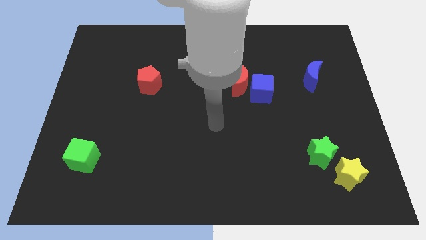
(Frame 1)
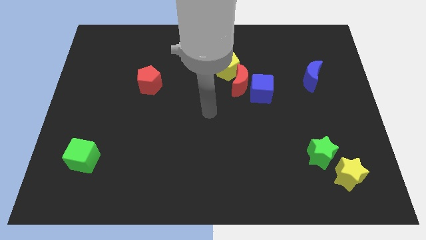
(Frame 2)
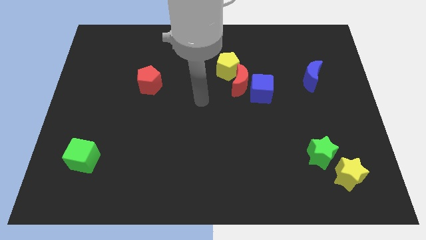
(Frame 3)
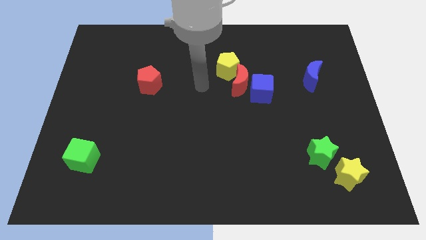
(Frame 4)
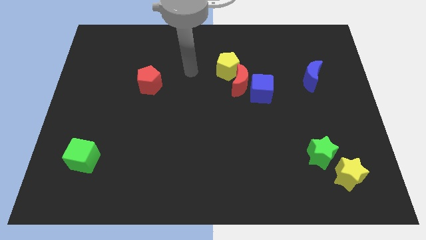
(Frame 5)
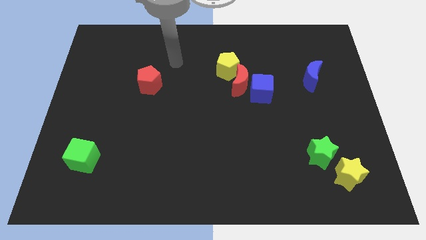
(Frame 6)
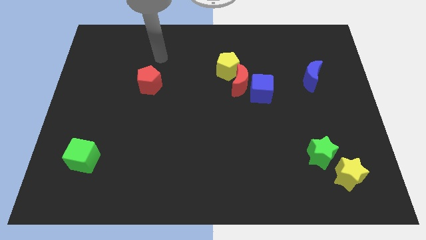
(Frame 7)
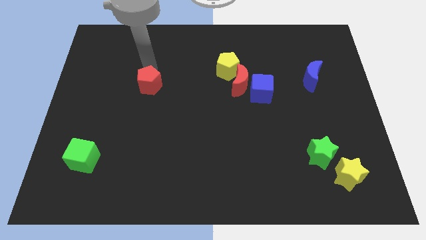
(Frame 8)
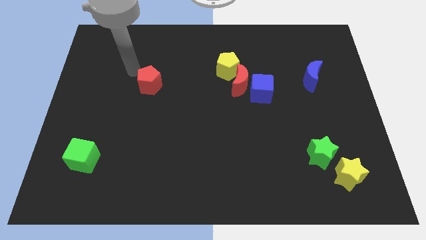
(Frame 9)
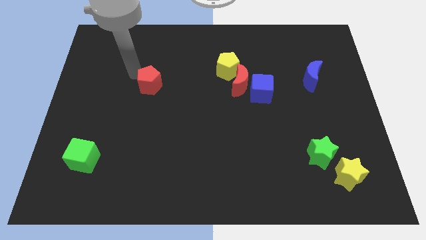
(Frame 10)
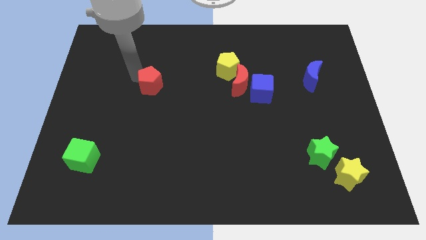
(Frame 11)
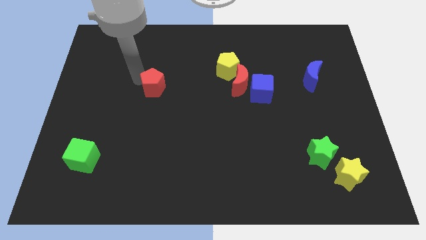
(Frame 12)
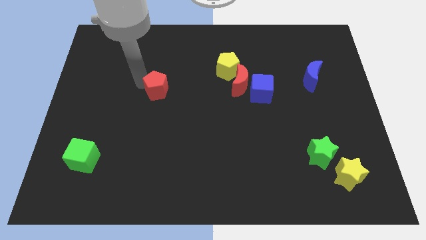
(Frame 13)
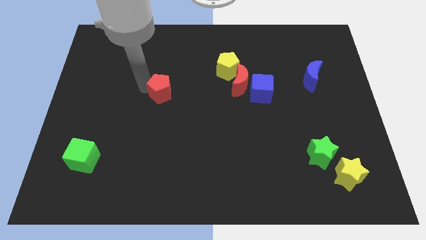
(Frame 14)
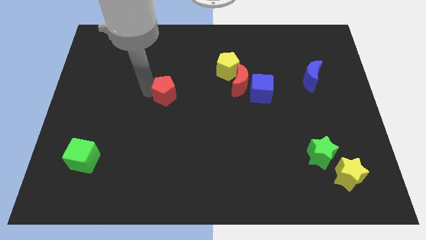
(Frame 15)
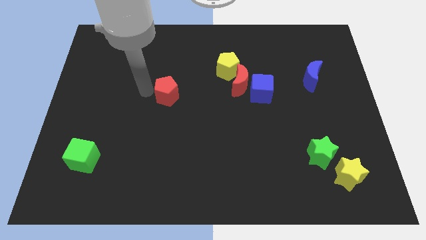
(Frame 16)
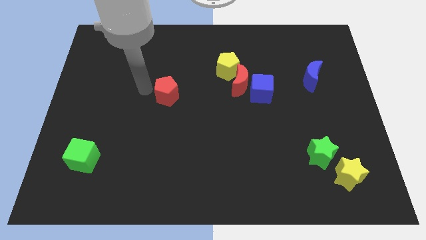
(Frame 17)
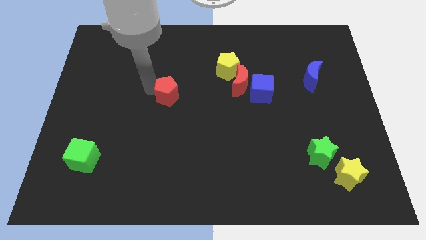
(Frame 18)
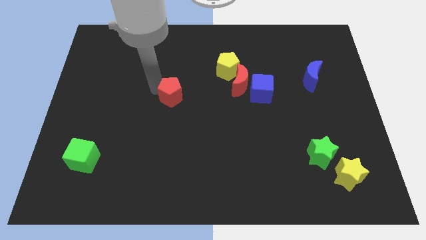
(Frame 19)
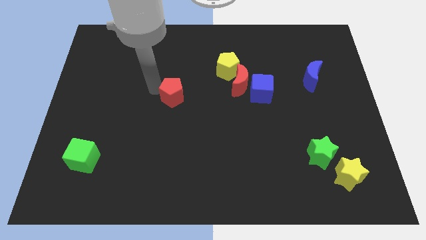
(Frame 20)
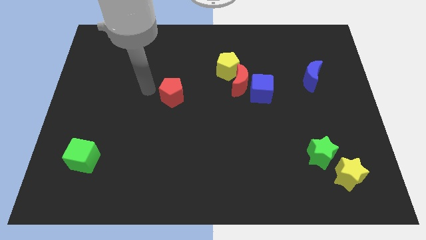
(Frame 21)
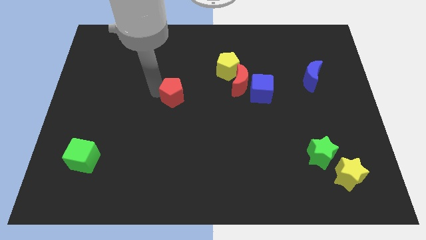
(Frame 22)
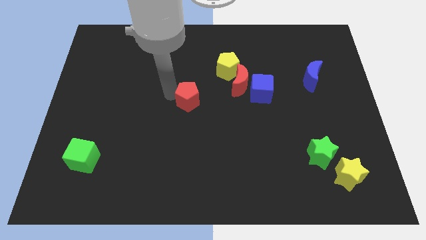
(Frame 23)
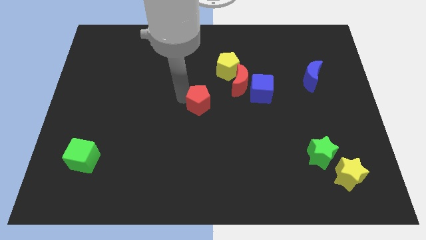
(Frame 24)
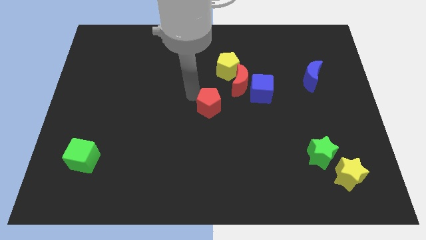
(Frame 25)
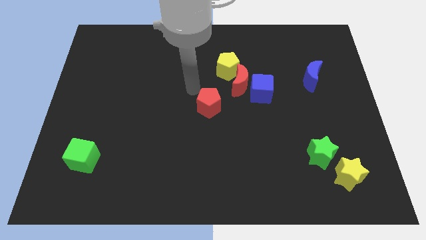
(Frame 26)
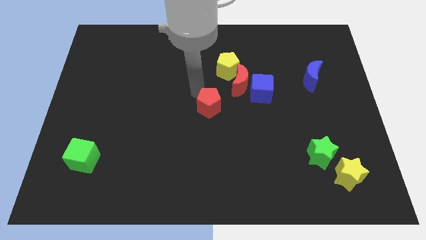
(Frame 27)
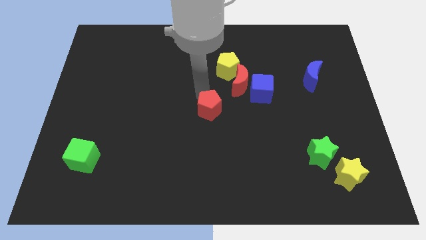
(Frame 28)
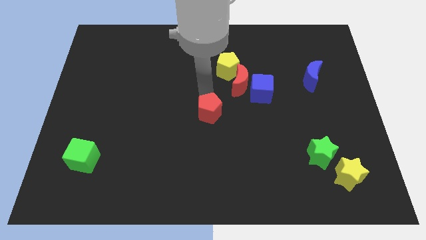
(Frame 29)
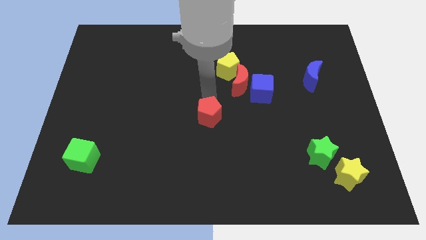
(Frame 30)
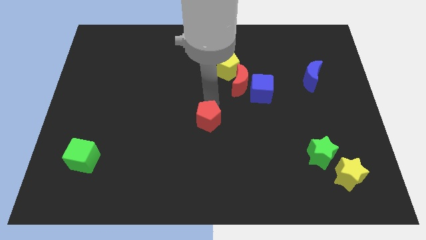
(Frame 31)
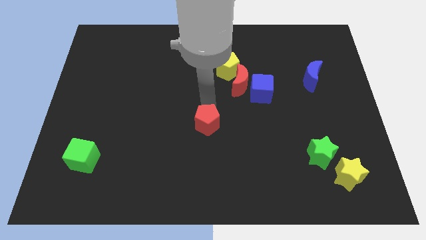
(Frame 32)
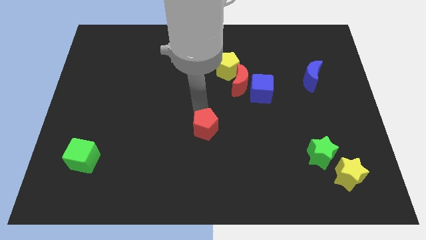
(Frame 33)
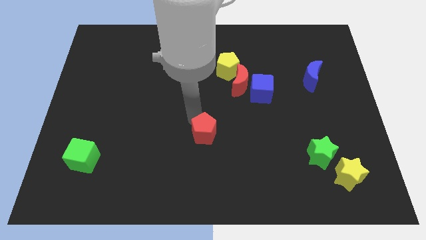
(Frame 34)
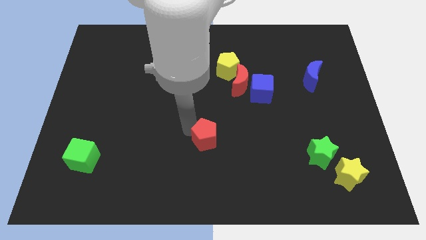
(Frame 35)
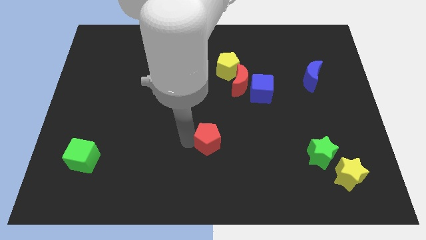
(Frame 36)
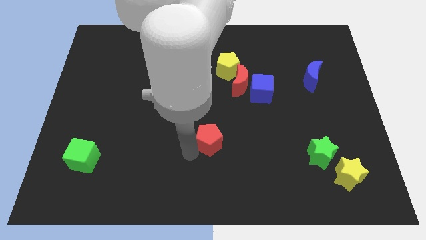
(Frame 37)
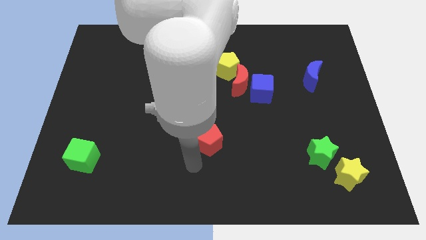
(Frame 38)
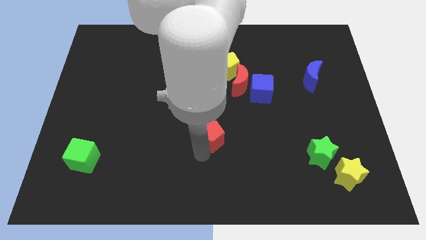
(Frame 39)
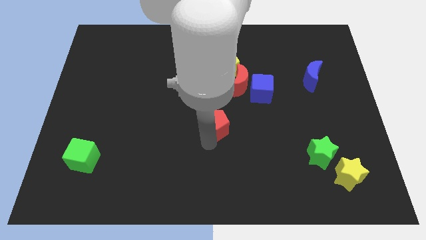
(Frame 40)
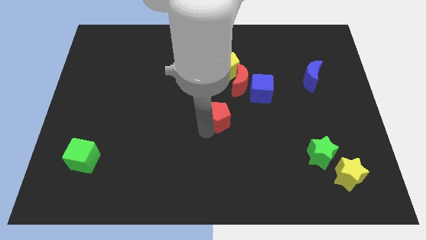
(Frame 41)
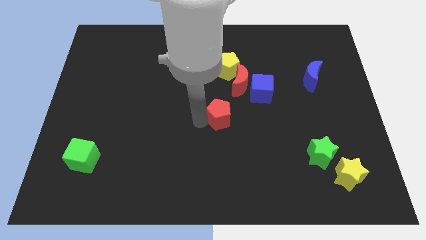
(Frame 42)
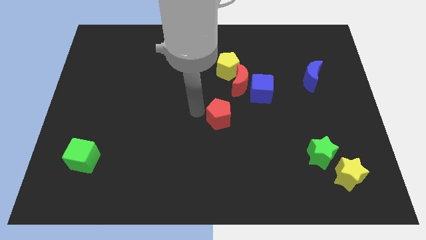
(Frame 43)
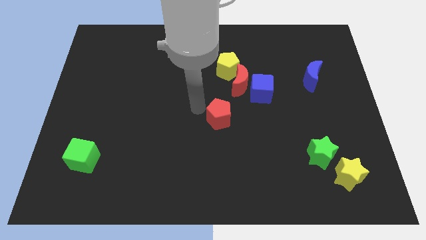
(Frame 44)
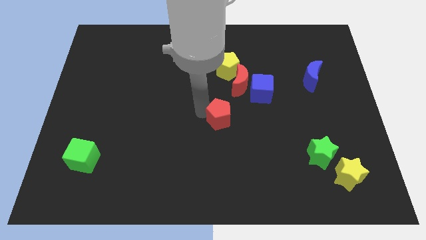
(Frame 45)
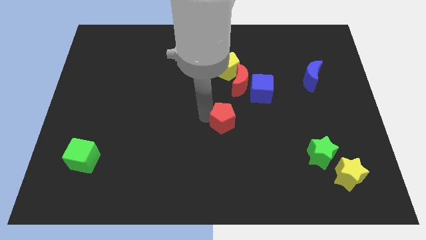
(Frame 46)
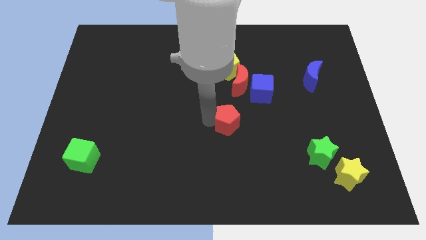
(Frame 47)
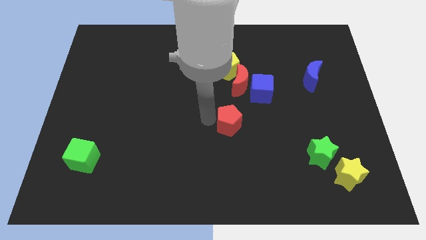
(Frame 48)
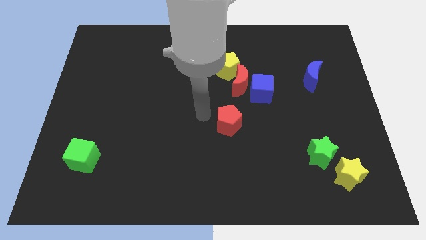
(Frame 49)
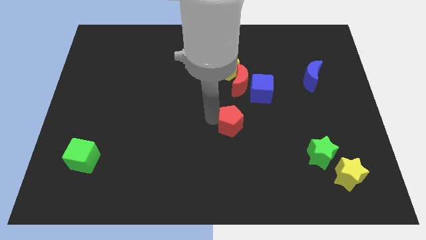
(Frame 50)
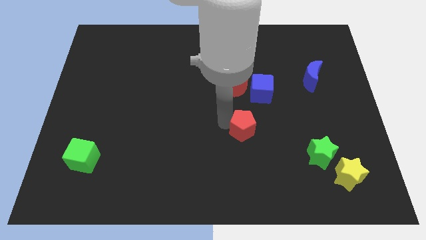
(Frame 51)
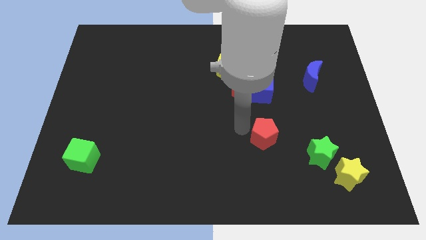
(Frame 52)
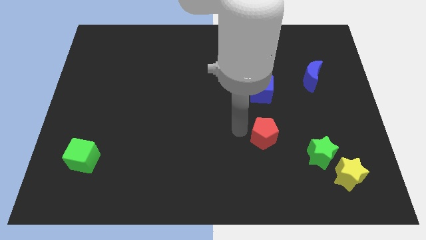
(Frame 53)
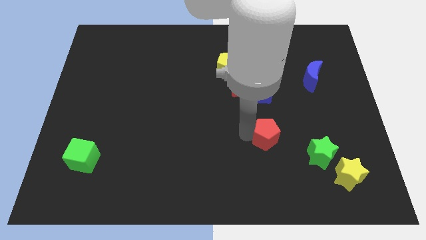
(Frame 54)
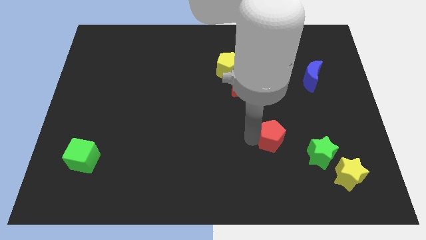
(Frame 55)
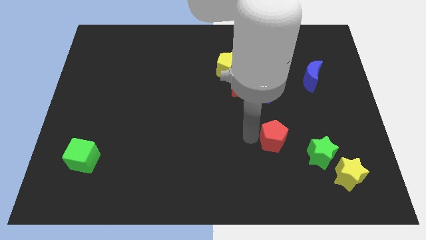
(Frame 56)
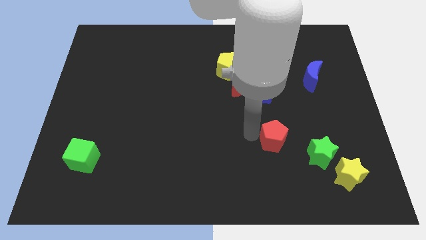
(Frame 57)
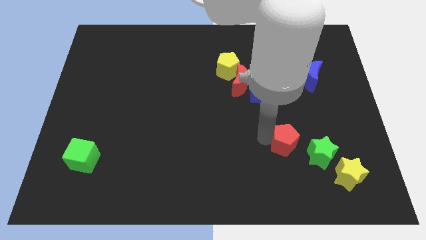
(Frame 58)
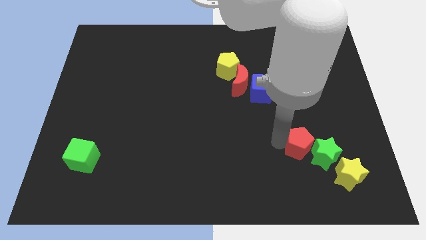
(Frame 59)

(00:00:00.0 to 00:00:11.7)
slide the red pentagon next to the green star

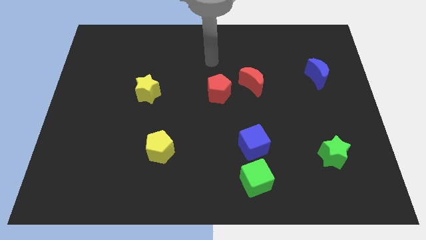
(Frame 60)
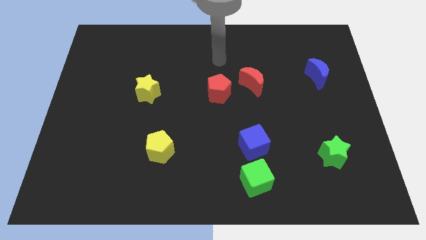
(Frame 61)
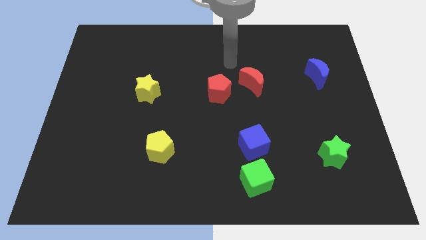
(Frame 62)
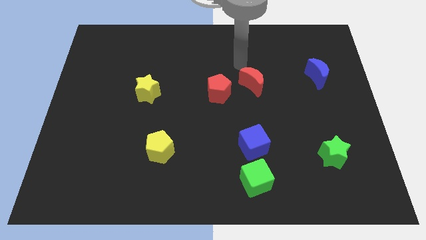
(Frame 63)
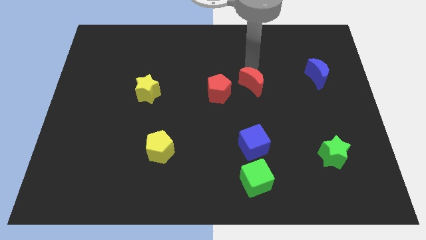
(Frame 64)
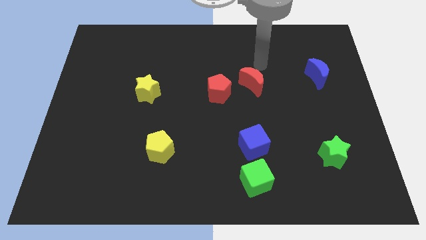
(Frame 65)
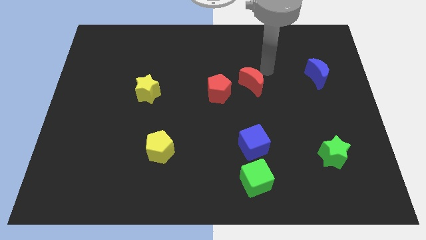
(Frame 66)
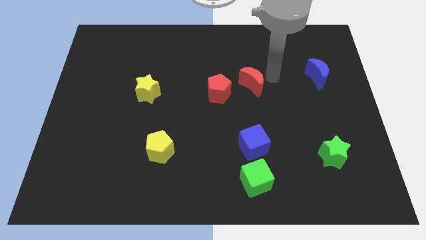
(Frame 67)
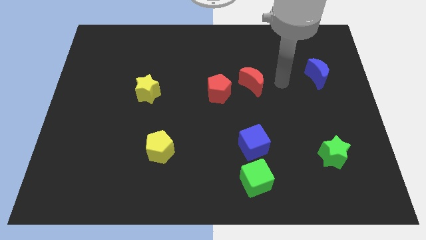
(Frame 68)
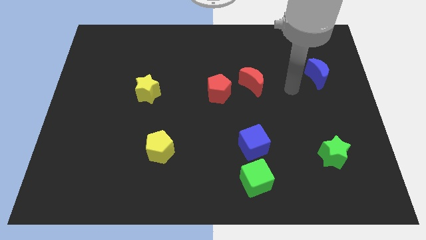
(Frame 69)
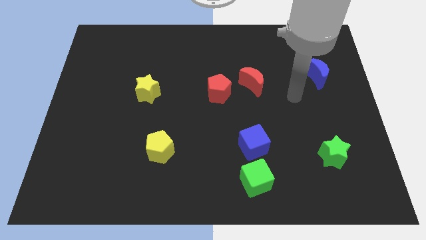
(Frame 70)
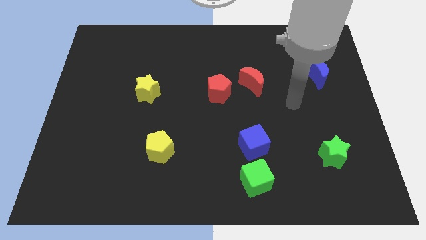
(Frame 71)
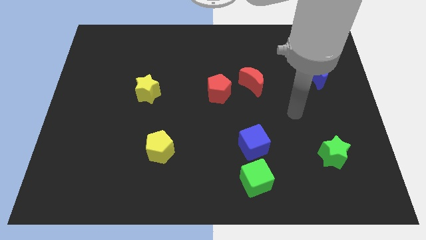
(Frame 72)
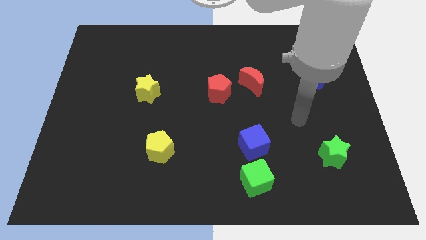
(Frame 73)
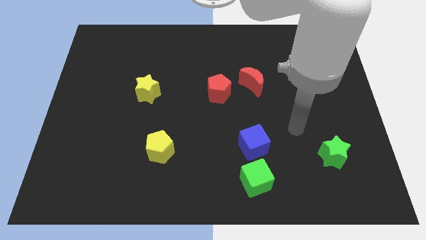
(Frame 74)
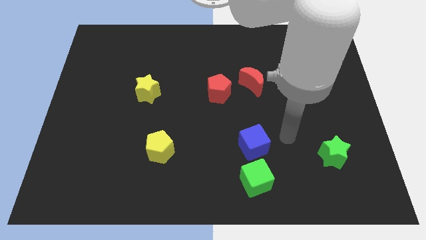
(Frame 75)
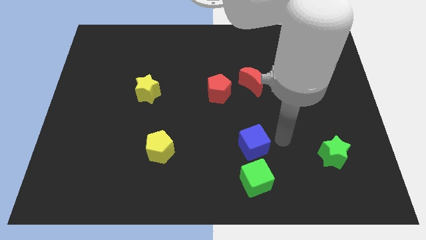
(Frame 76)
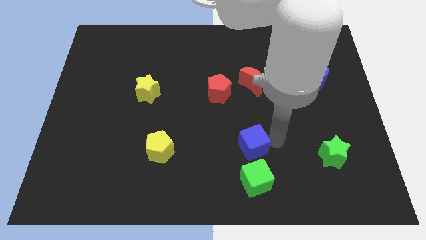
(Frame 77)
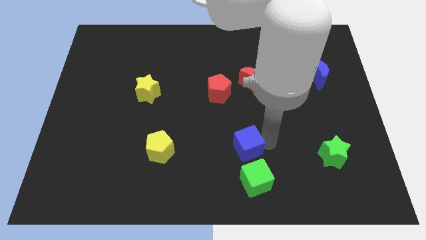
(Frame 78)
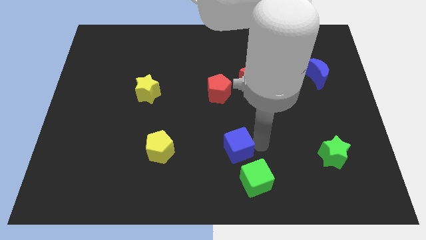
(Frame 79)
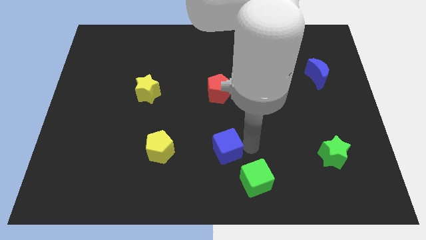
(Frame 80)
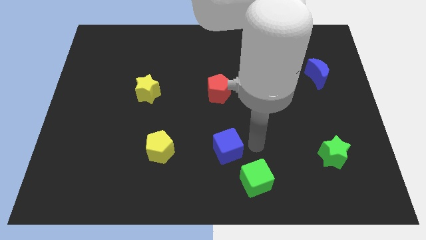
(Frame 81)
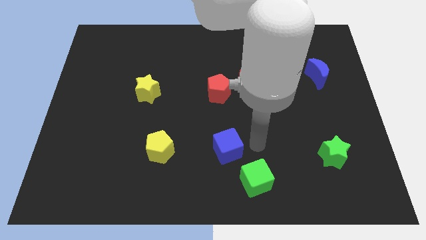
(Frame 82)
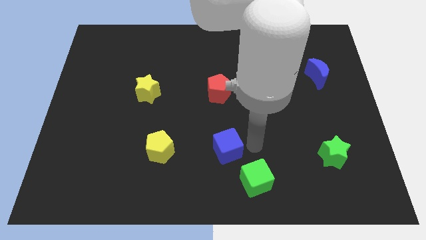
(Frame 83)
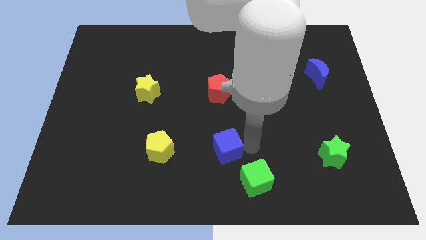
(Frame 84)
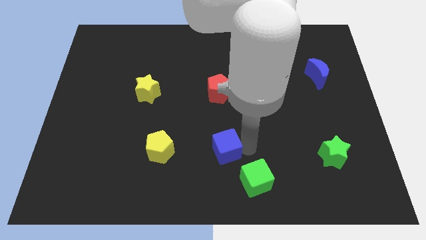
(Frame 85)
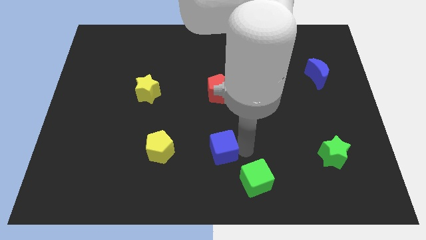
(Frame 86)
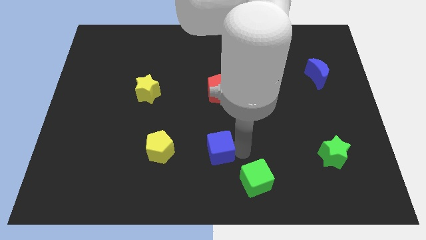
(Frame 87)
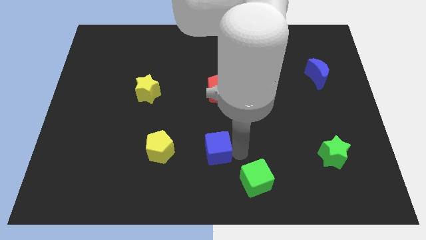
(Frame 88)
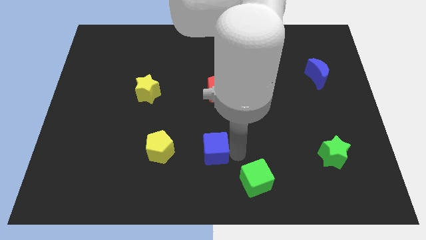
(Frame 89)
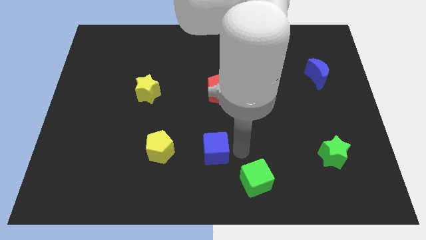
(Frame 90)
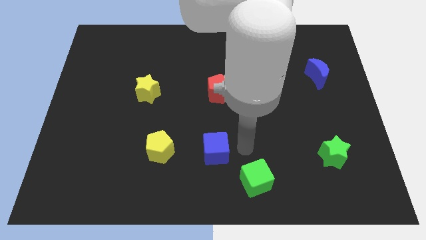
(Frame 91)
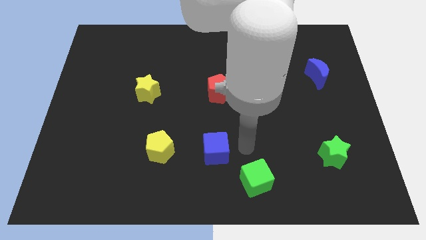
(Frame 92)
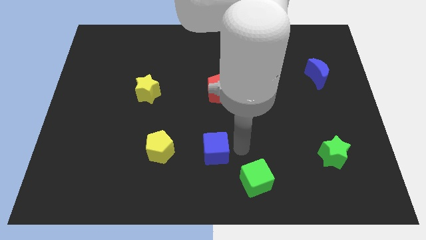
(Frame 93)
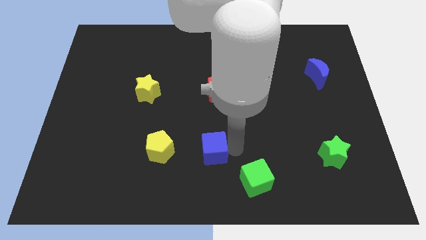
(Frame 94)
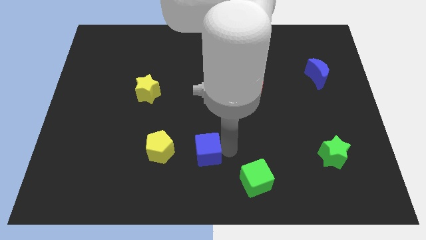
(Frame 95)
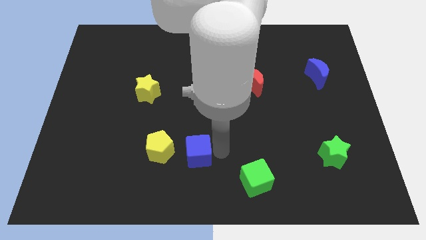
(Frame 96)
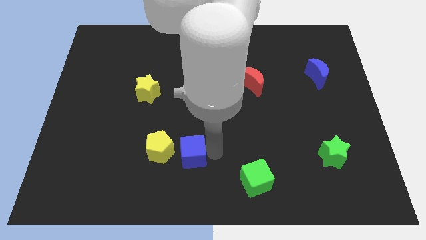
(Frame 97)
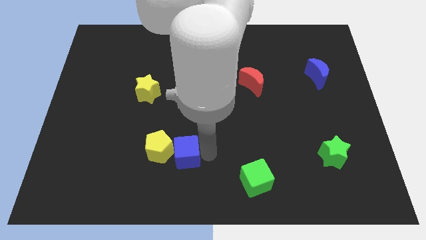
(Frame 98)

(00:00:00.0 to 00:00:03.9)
push the blue cube close to the yellow pentagon
